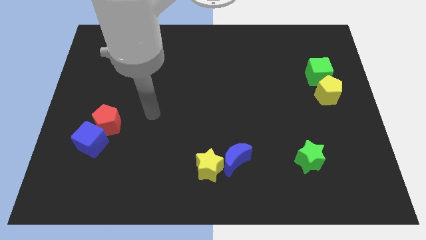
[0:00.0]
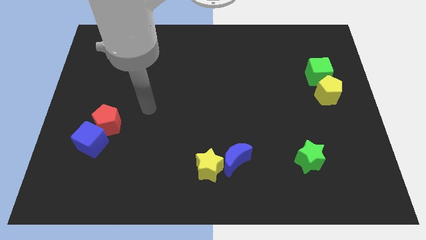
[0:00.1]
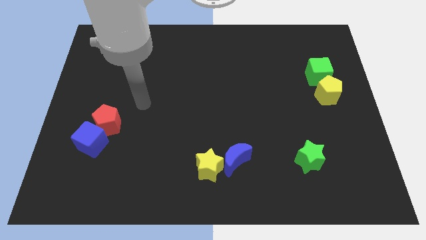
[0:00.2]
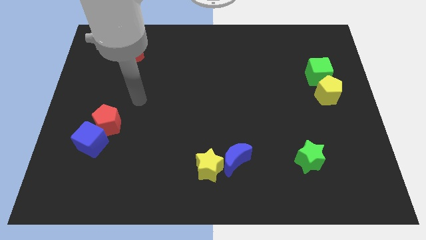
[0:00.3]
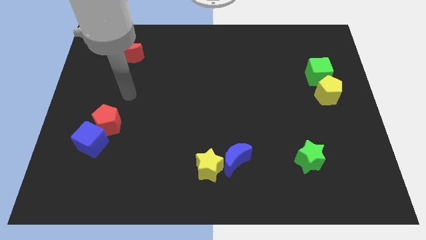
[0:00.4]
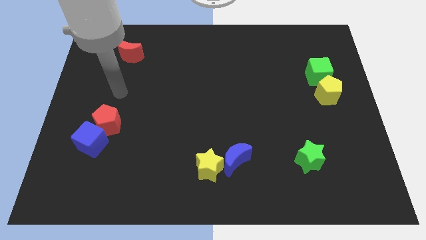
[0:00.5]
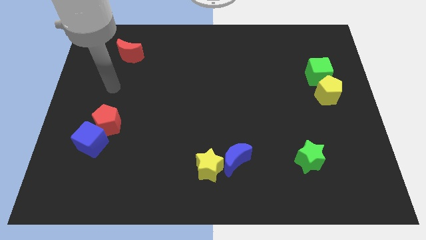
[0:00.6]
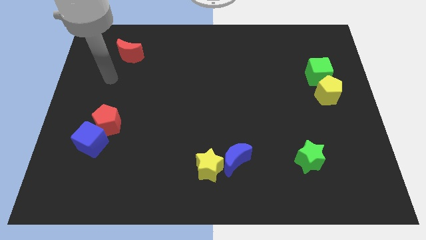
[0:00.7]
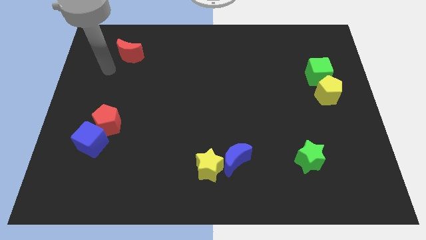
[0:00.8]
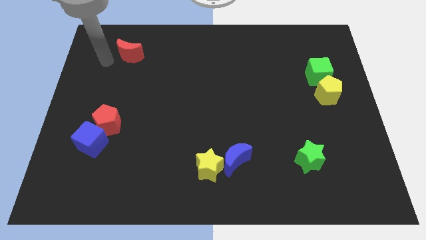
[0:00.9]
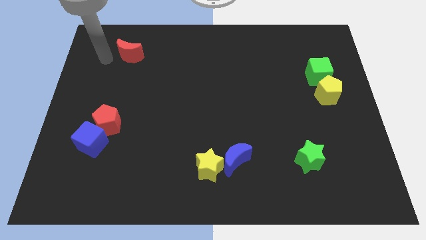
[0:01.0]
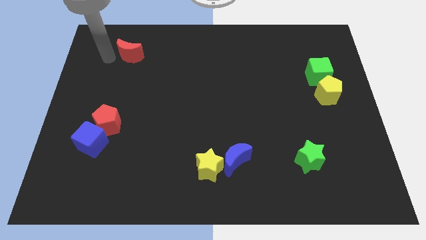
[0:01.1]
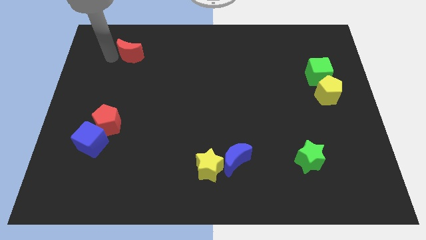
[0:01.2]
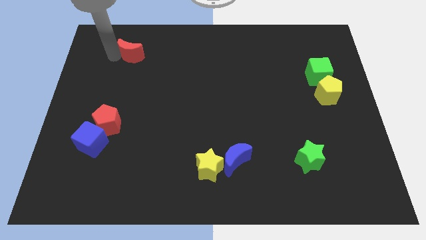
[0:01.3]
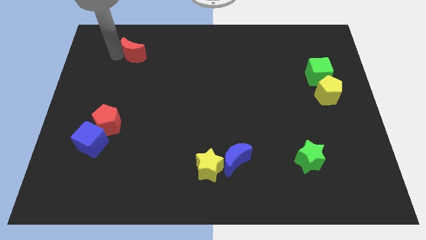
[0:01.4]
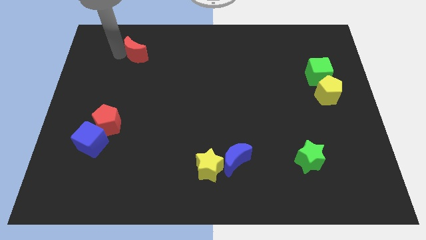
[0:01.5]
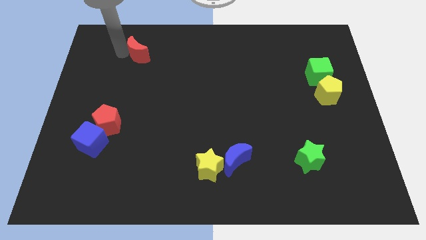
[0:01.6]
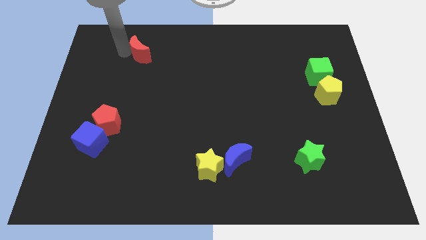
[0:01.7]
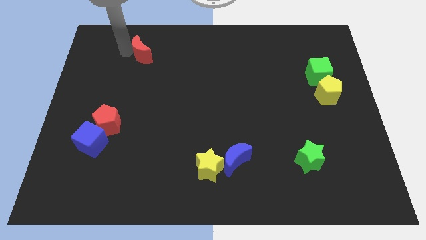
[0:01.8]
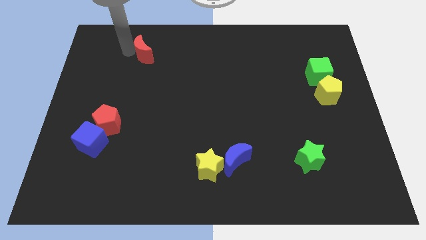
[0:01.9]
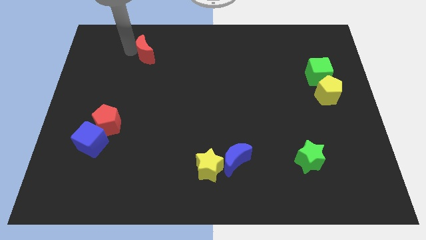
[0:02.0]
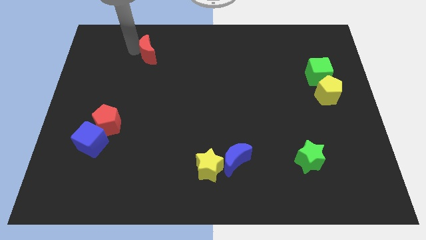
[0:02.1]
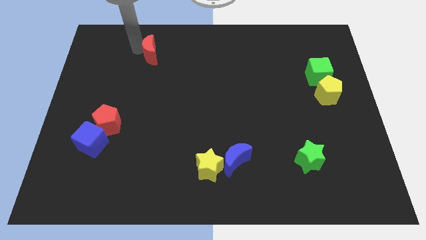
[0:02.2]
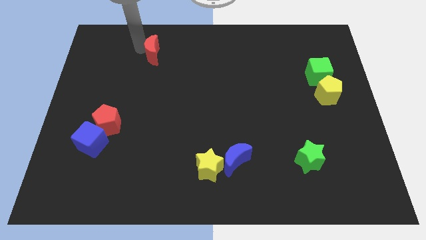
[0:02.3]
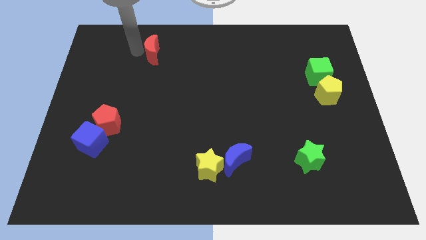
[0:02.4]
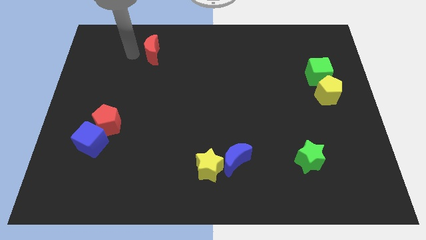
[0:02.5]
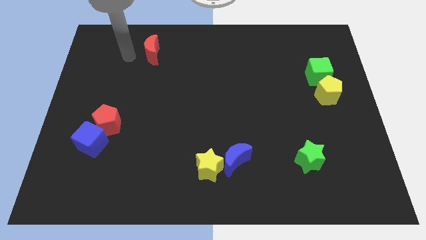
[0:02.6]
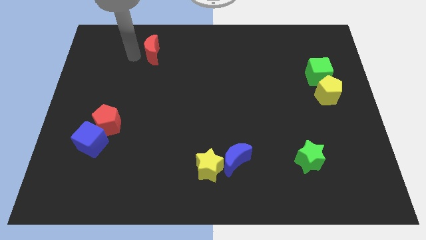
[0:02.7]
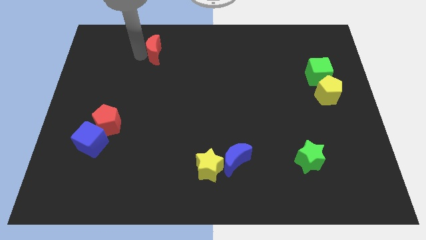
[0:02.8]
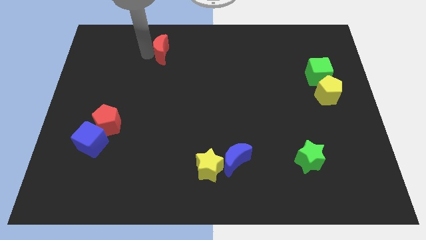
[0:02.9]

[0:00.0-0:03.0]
push the red moon right a bit

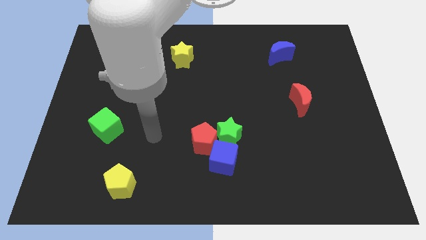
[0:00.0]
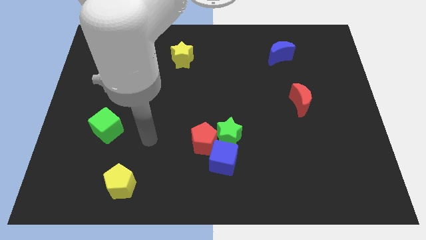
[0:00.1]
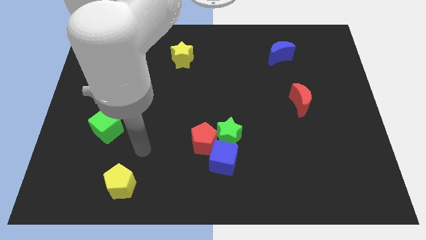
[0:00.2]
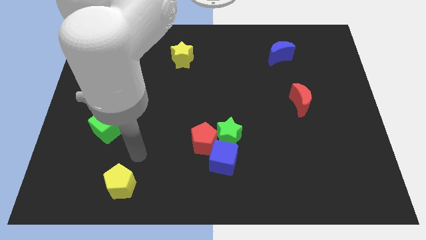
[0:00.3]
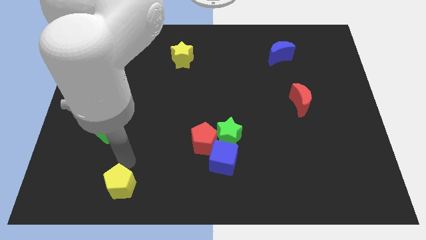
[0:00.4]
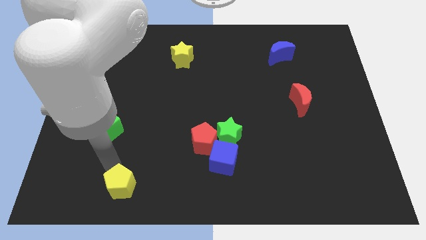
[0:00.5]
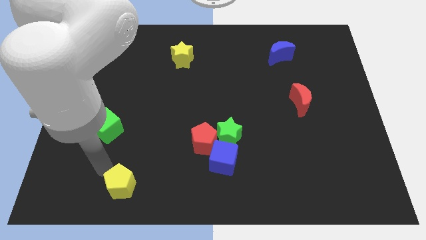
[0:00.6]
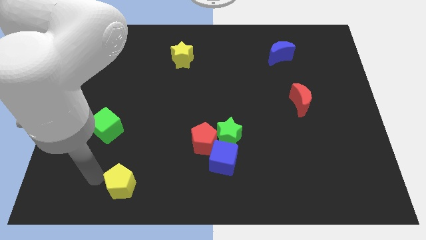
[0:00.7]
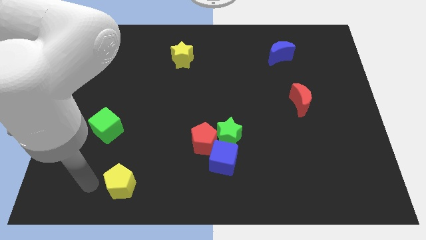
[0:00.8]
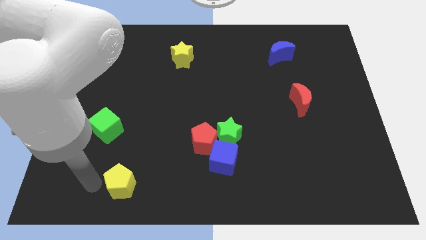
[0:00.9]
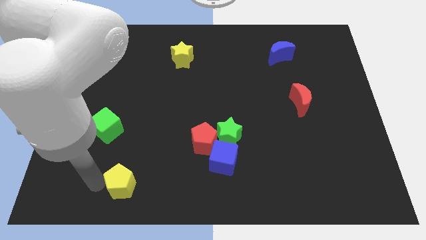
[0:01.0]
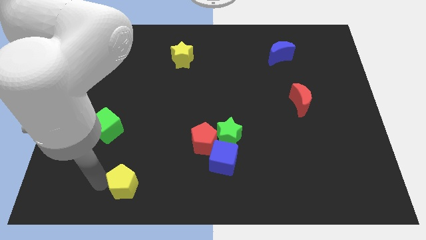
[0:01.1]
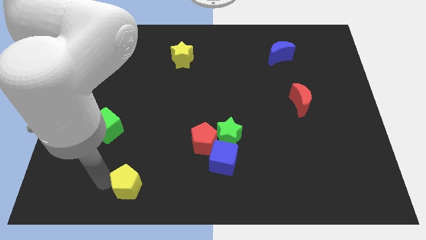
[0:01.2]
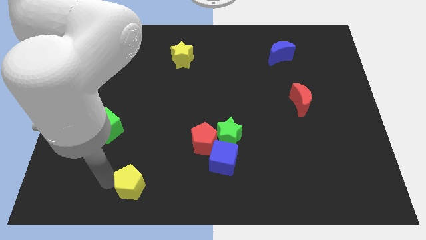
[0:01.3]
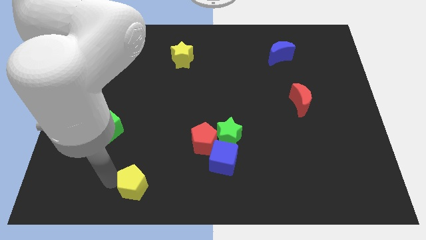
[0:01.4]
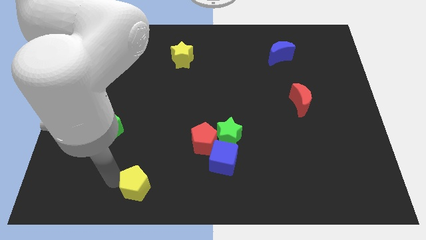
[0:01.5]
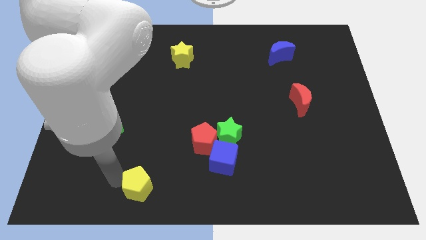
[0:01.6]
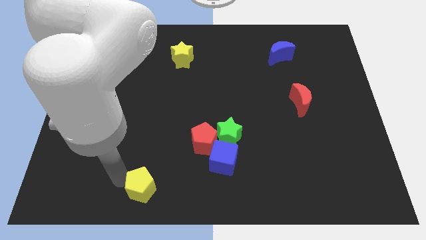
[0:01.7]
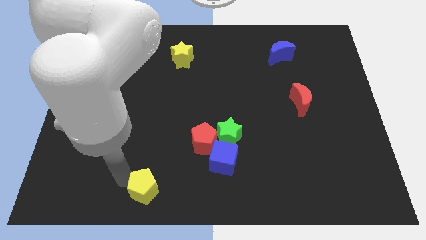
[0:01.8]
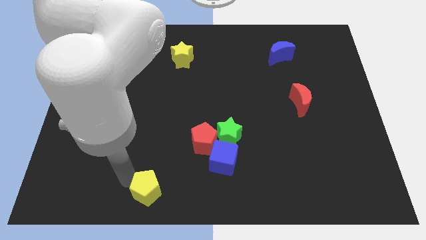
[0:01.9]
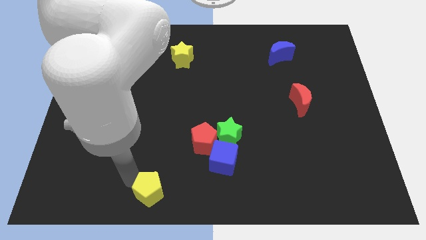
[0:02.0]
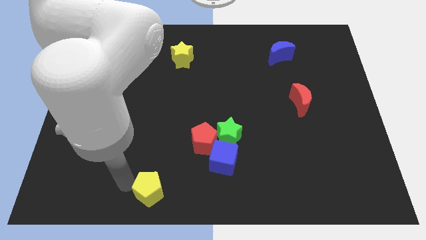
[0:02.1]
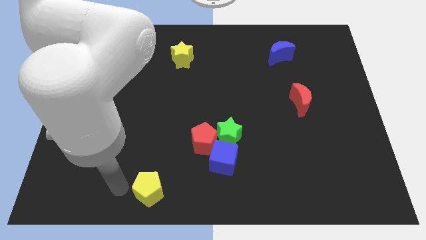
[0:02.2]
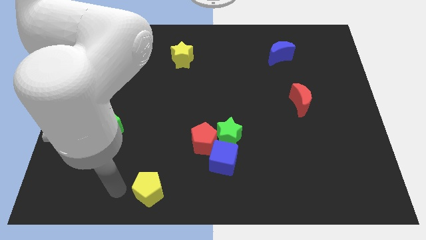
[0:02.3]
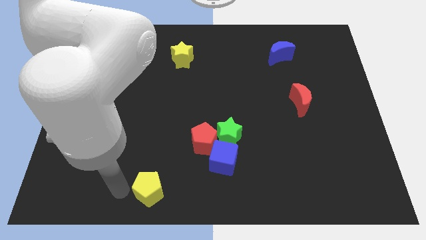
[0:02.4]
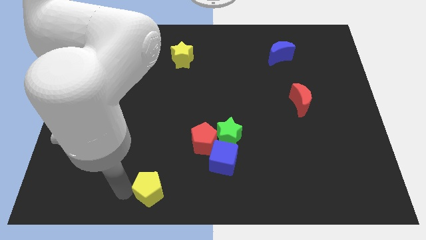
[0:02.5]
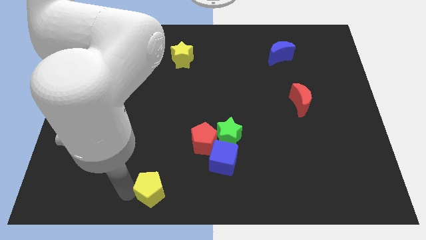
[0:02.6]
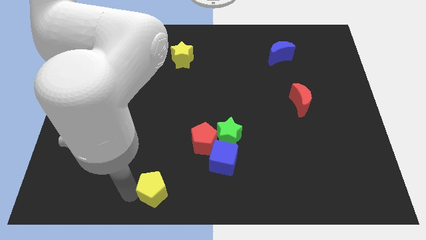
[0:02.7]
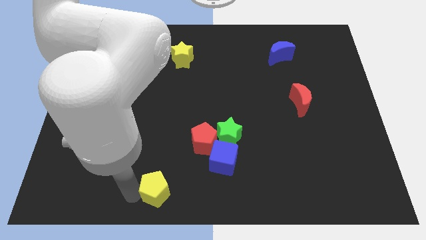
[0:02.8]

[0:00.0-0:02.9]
push the yellow pentagon a little right

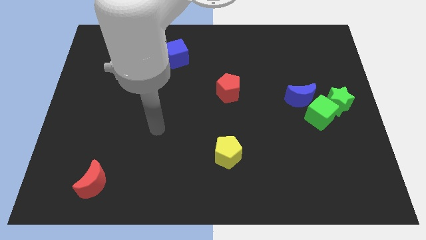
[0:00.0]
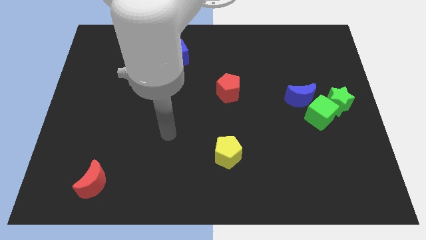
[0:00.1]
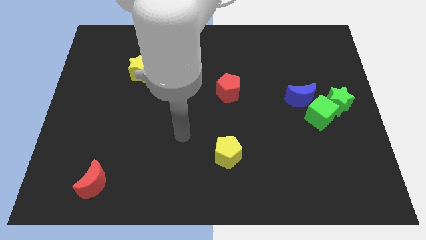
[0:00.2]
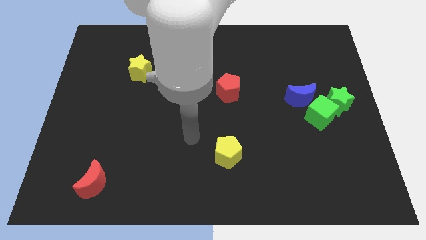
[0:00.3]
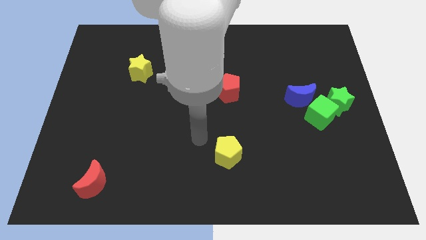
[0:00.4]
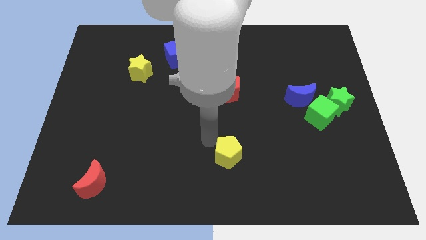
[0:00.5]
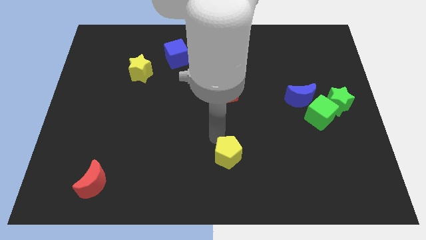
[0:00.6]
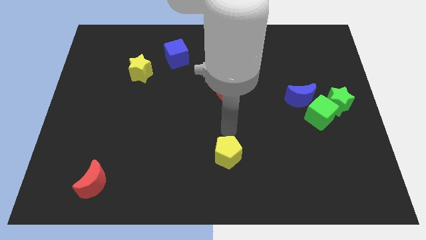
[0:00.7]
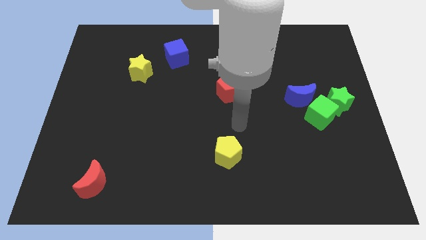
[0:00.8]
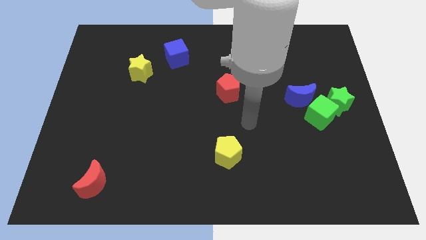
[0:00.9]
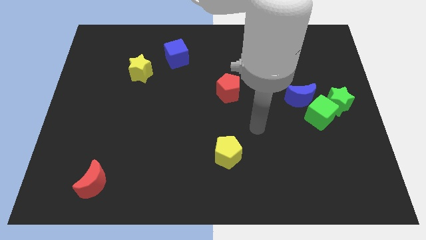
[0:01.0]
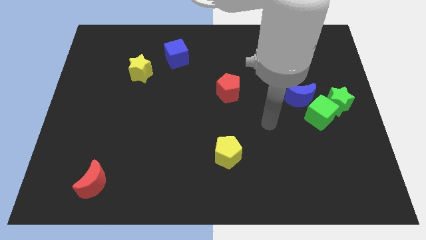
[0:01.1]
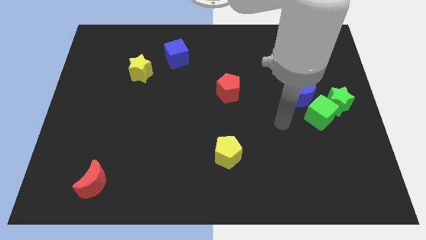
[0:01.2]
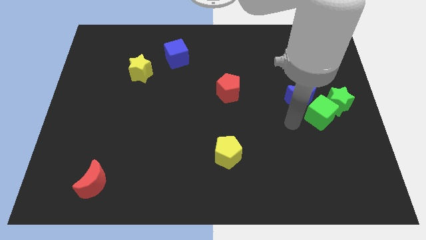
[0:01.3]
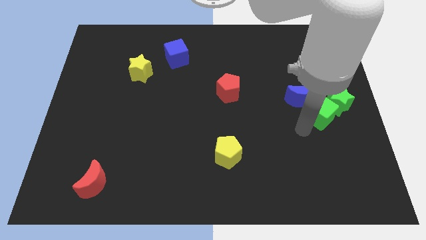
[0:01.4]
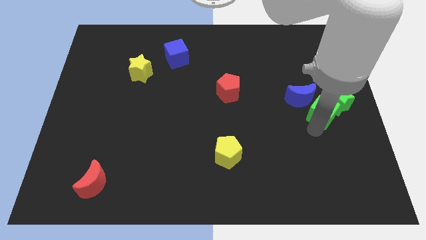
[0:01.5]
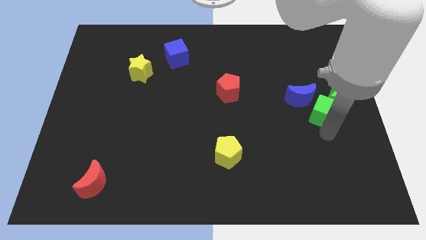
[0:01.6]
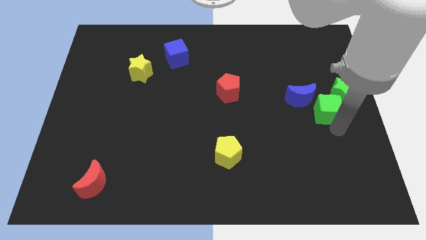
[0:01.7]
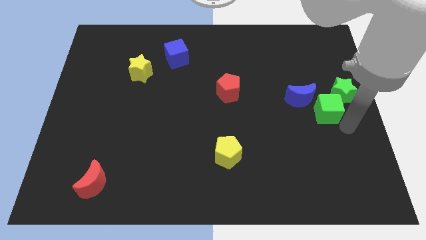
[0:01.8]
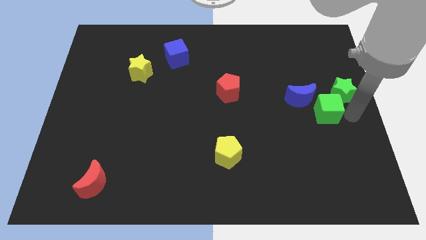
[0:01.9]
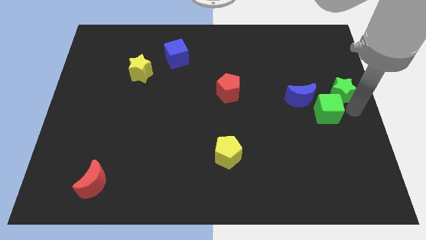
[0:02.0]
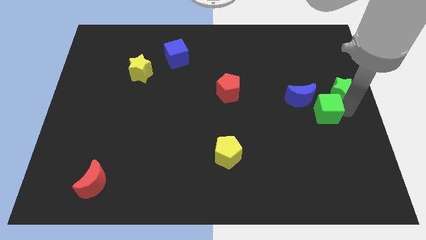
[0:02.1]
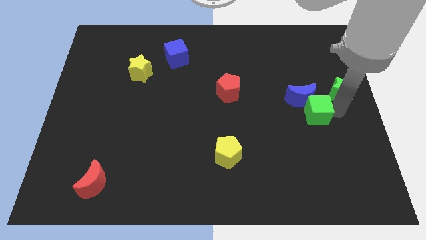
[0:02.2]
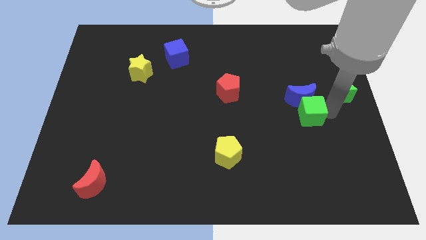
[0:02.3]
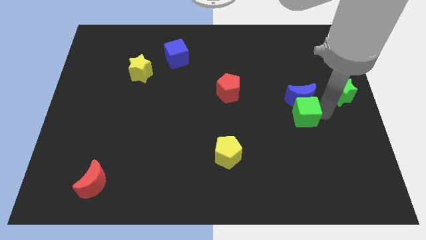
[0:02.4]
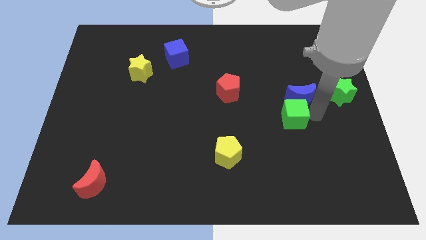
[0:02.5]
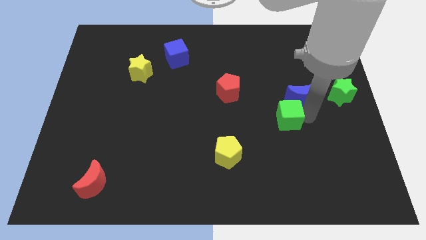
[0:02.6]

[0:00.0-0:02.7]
move the green cube to the left a little
